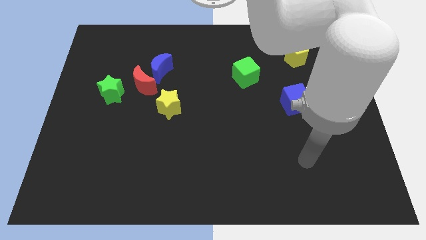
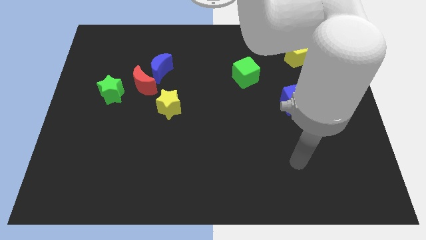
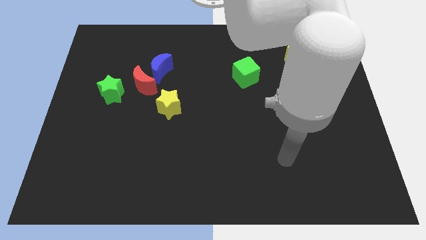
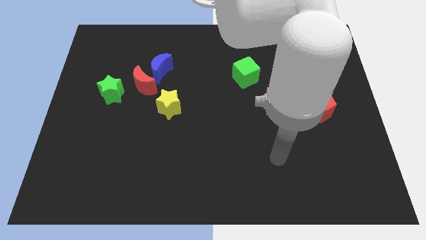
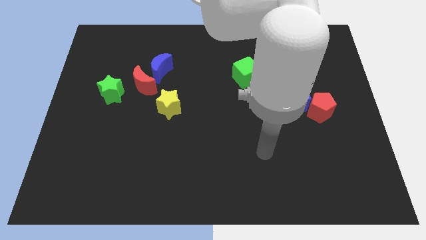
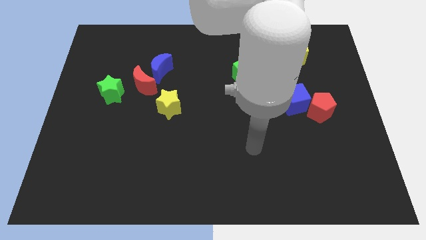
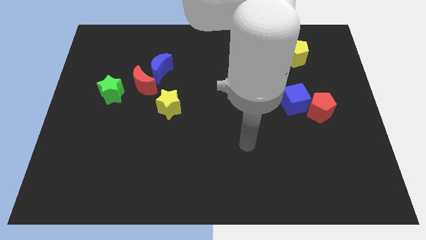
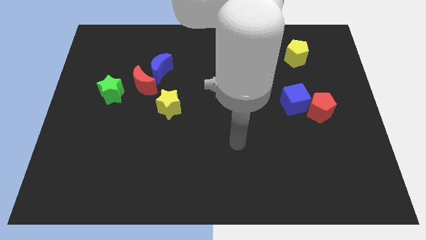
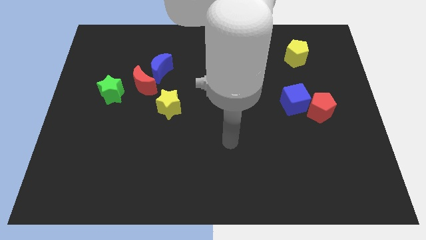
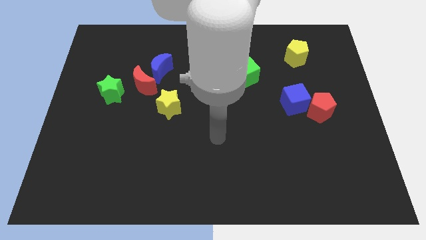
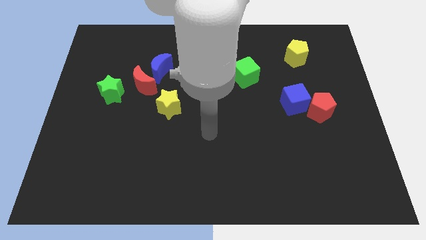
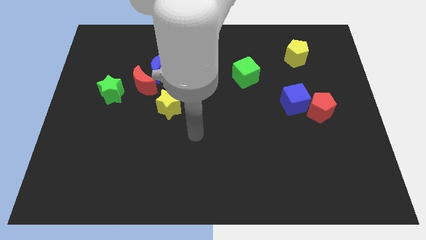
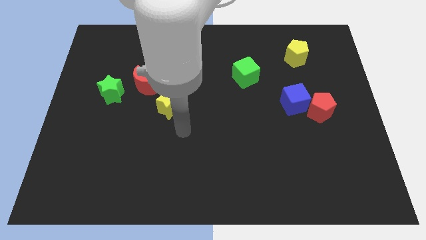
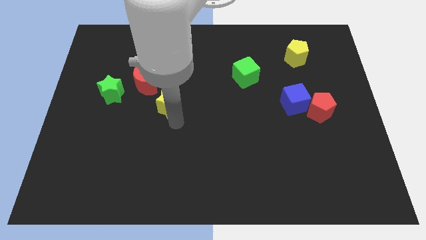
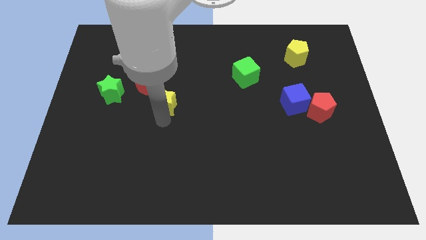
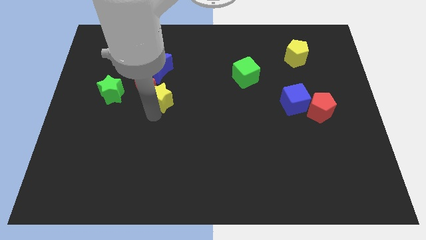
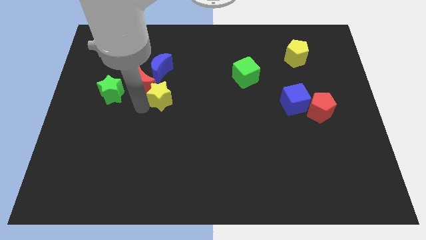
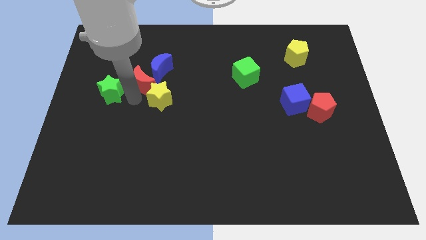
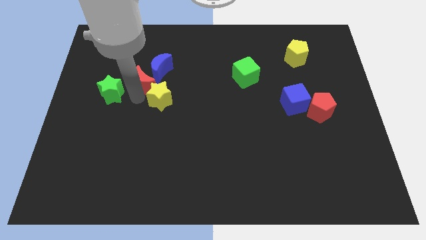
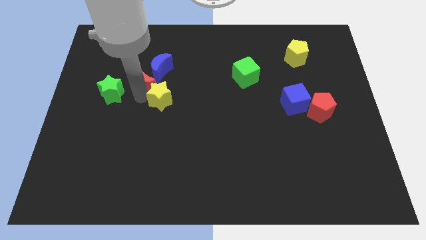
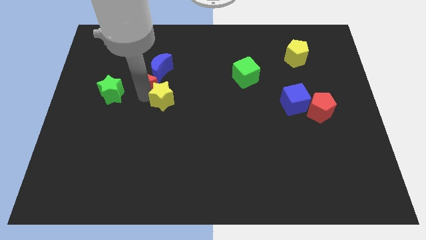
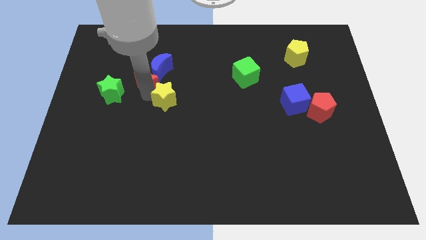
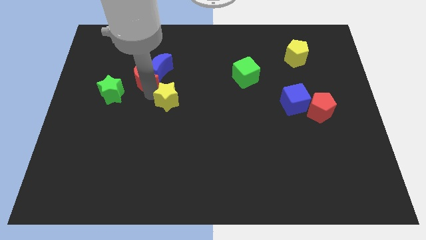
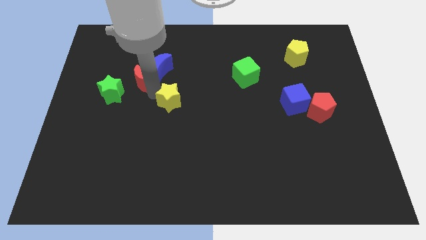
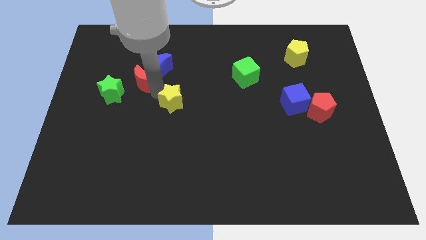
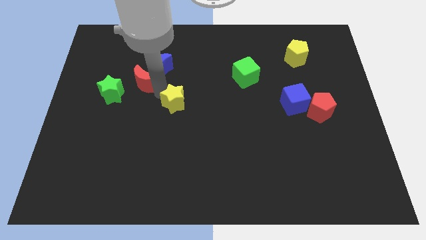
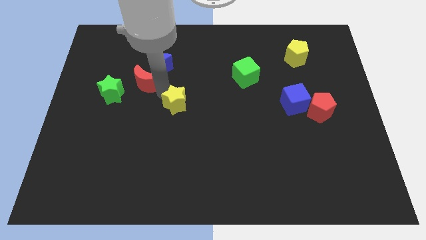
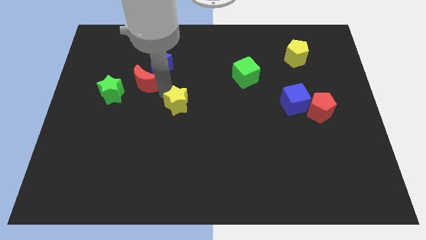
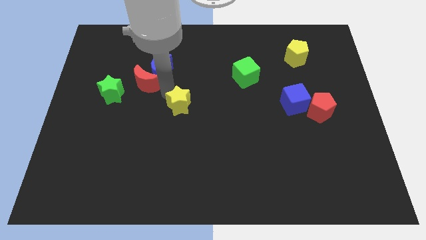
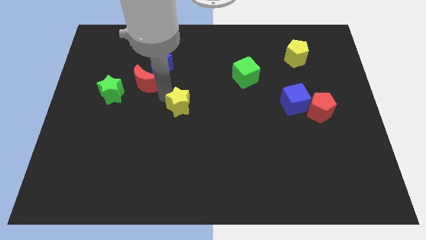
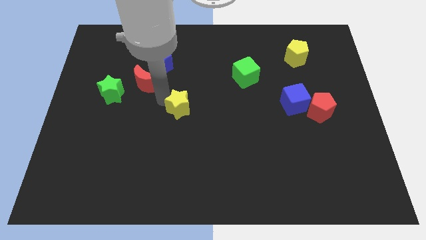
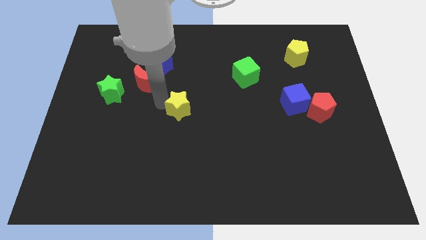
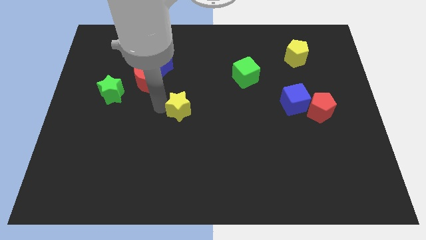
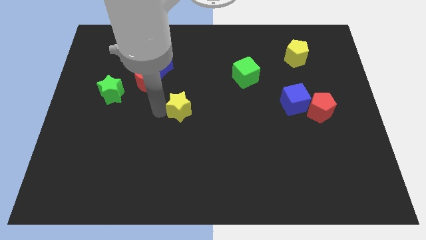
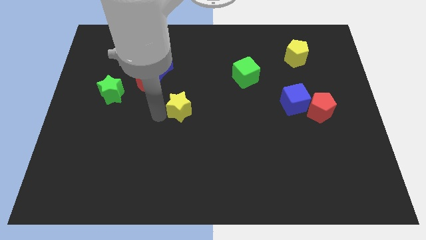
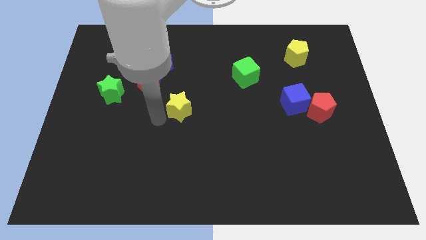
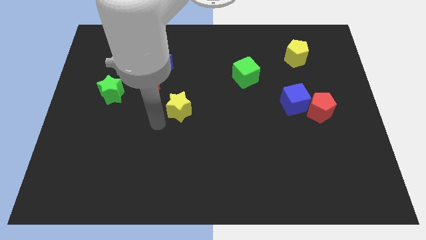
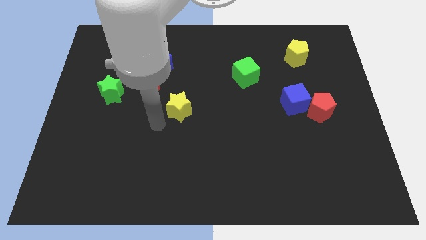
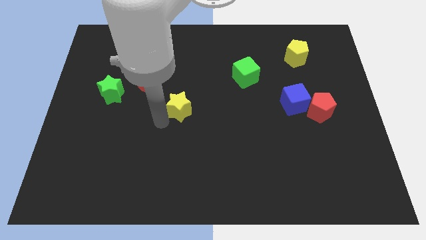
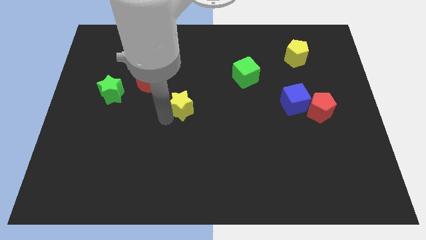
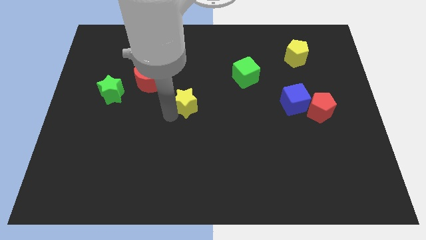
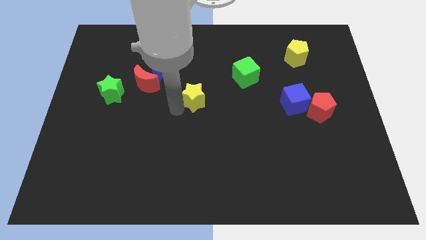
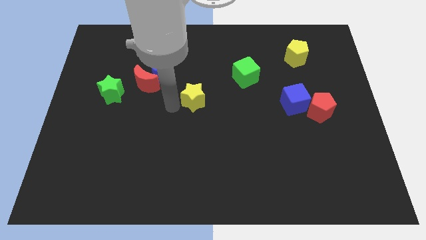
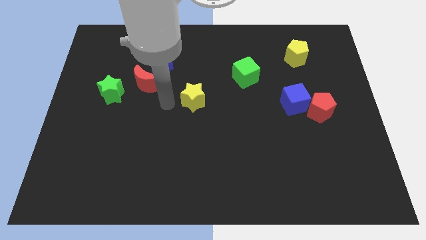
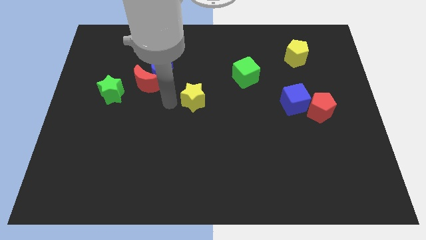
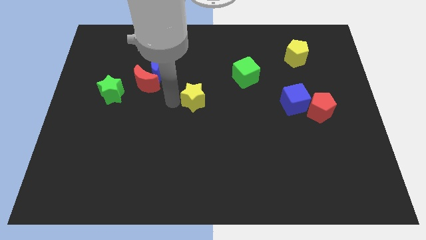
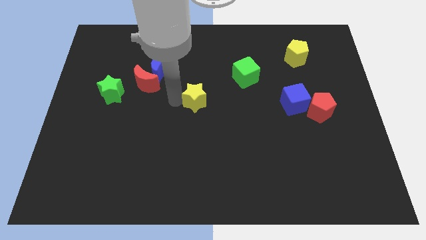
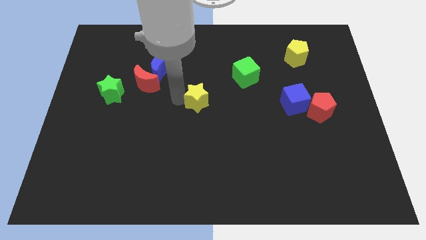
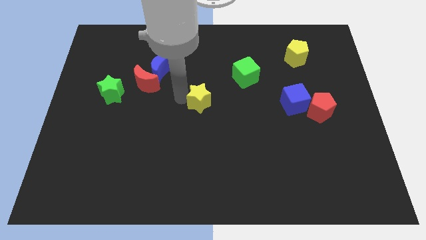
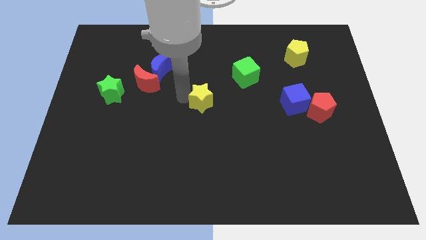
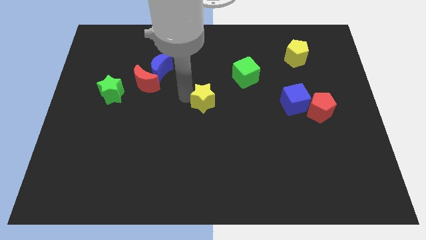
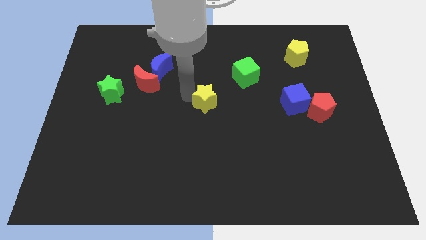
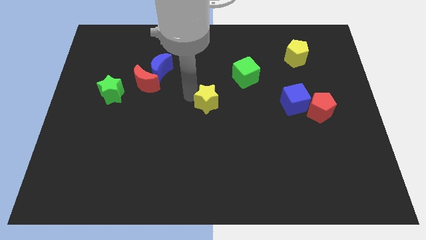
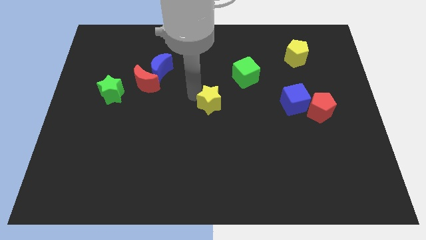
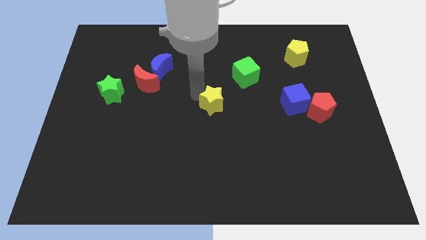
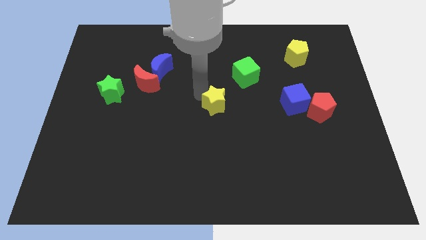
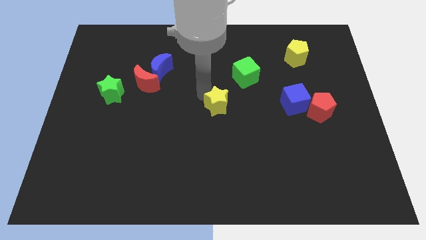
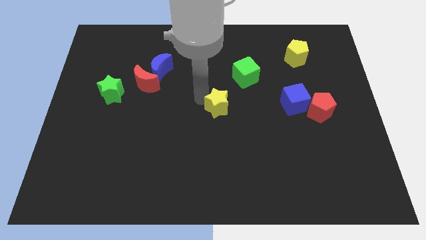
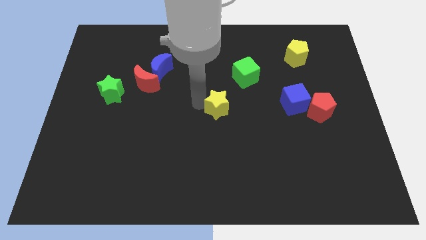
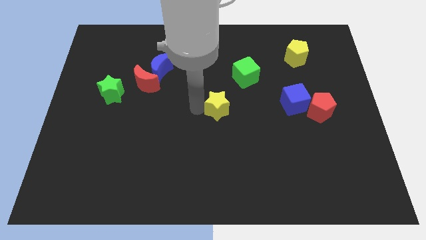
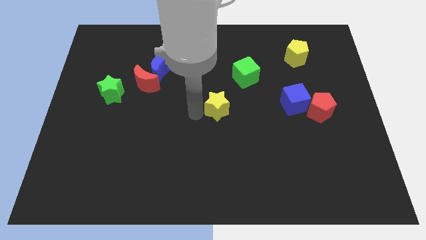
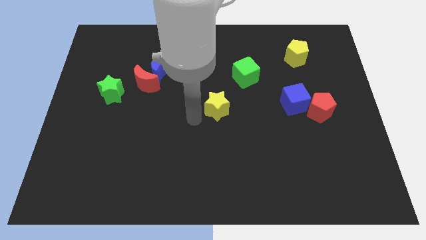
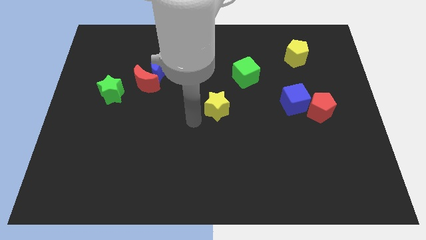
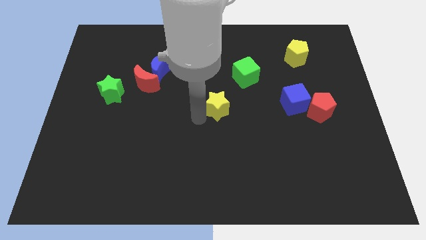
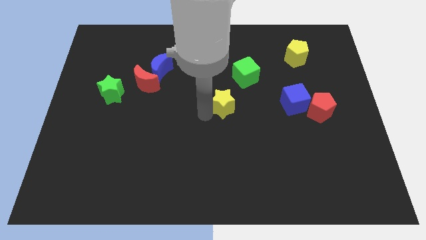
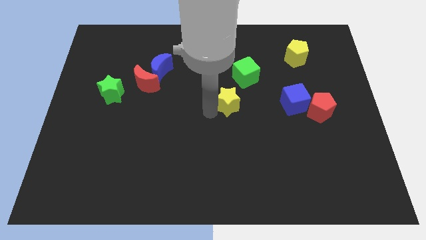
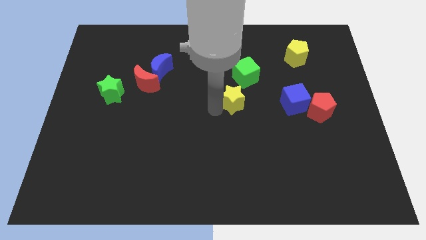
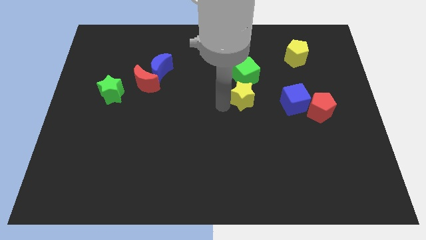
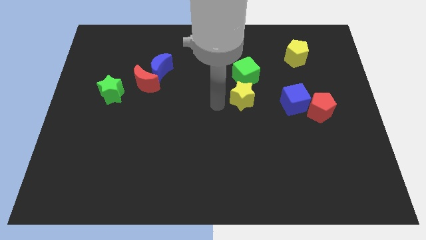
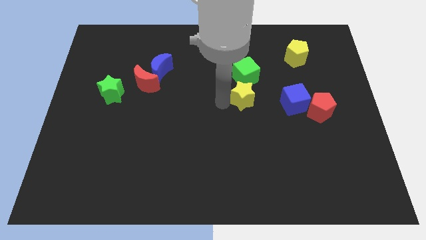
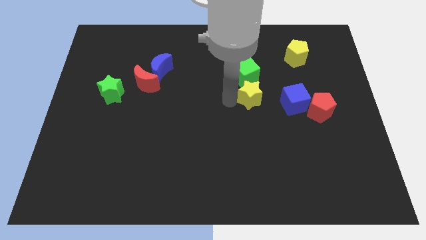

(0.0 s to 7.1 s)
put the yellow star to the bottom right side of the green cube

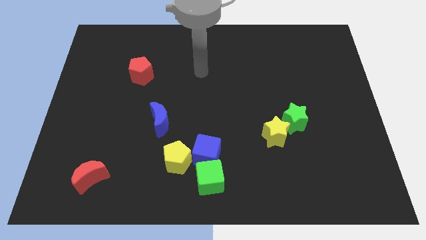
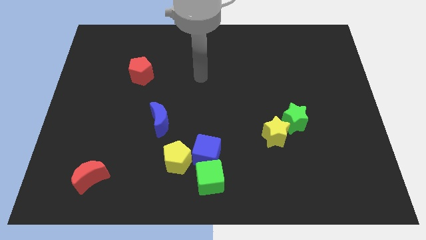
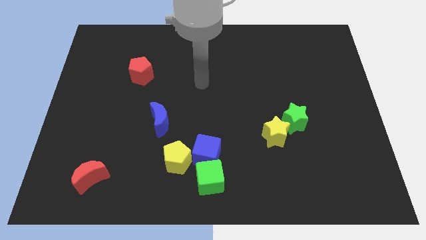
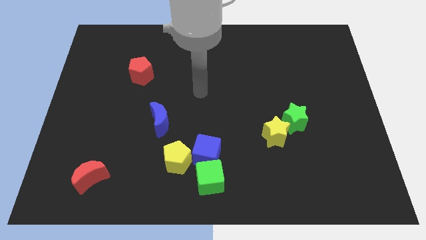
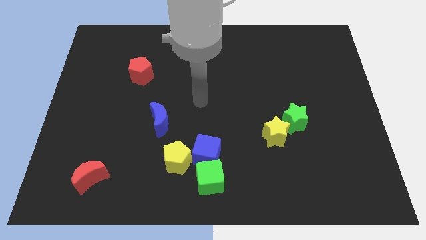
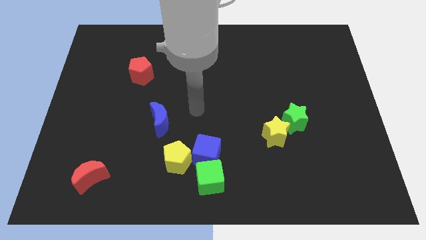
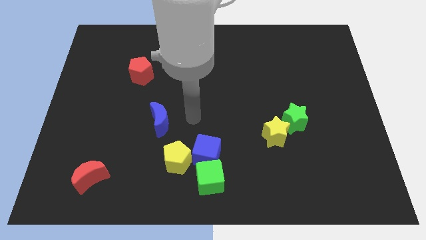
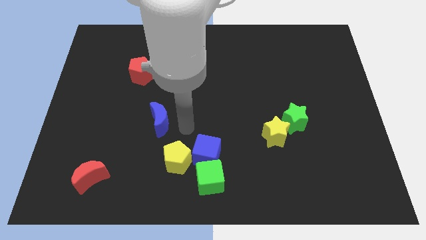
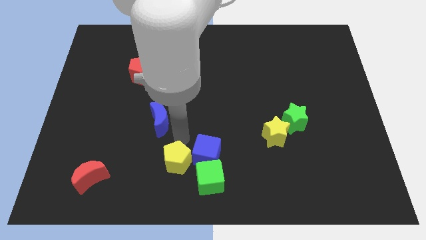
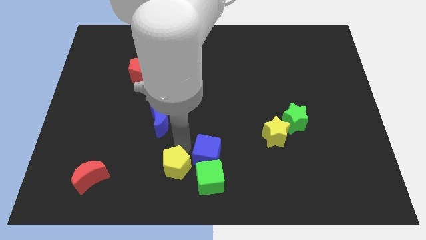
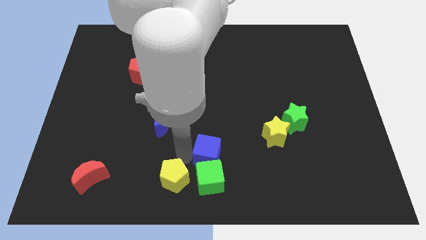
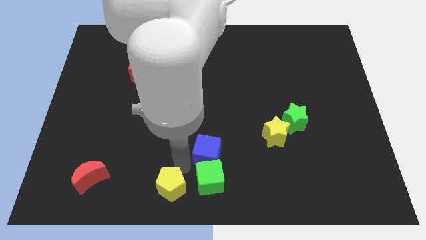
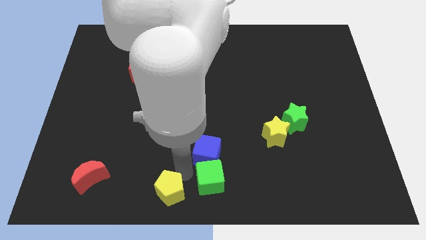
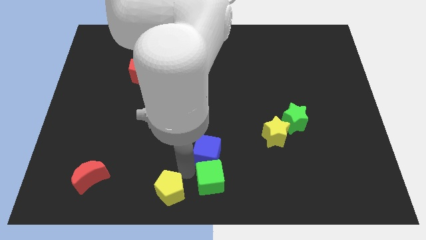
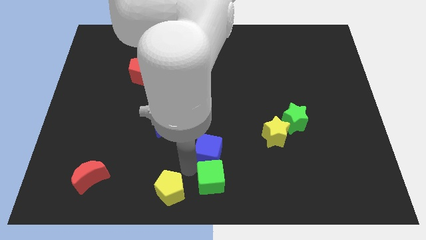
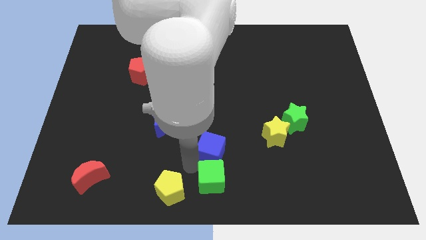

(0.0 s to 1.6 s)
move the blue cube just left of the yellow star
